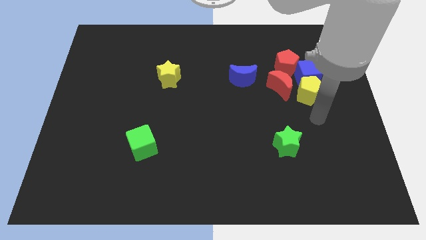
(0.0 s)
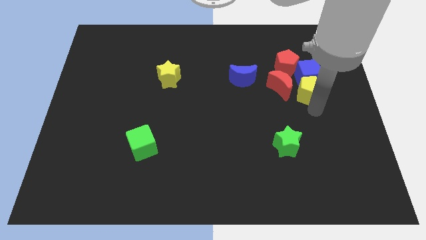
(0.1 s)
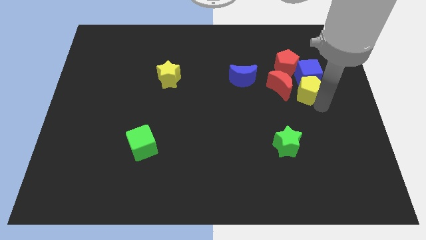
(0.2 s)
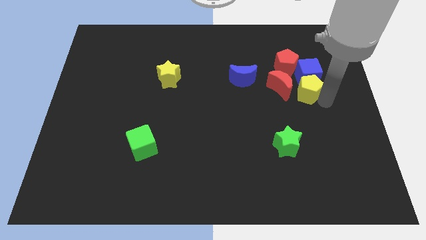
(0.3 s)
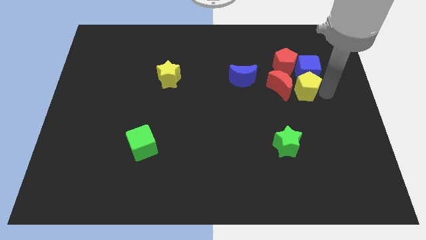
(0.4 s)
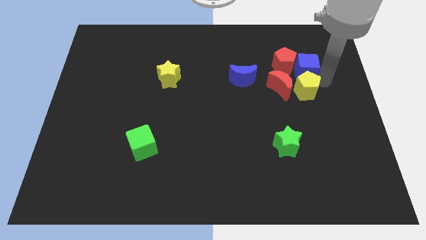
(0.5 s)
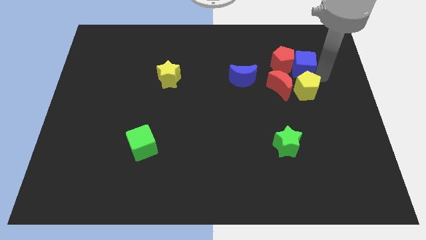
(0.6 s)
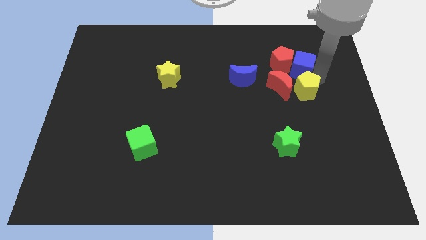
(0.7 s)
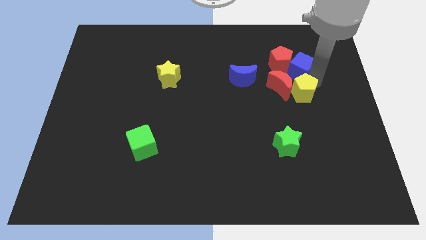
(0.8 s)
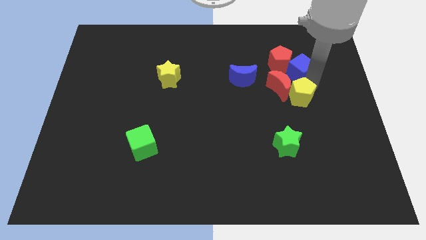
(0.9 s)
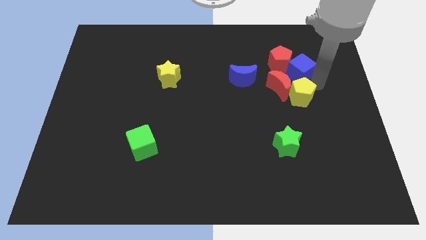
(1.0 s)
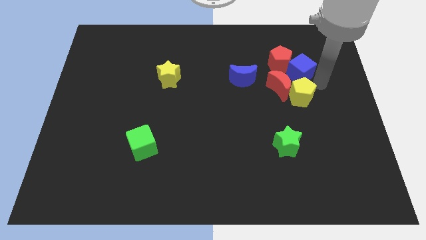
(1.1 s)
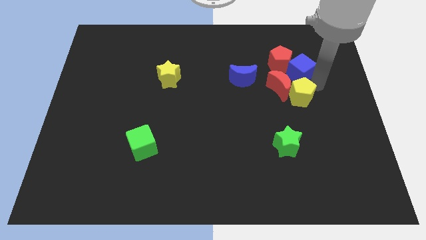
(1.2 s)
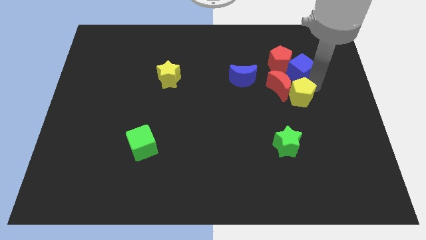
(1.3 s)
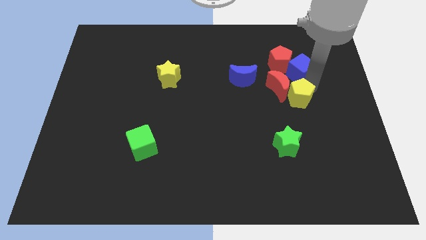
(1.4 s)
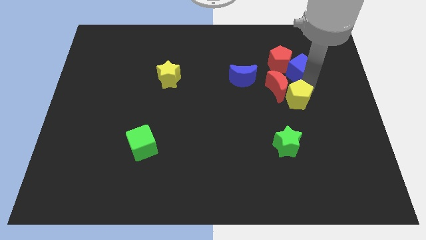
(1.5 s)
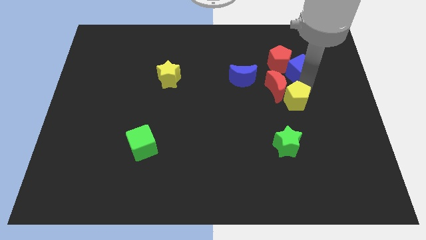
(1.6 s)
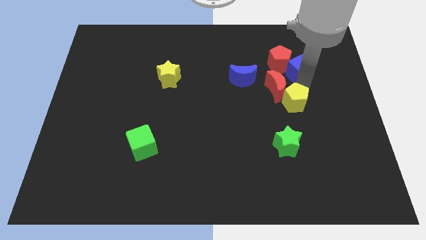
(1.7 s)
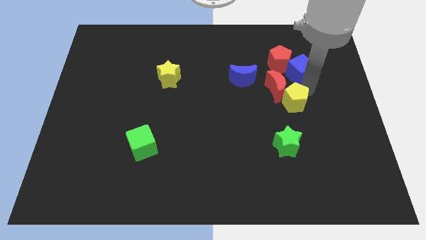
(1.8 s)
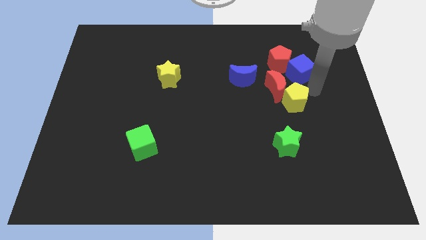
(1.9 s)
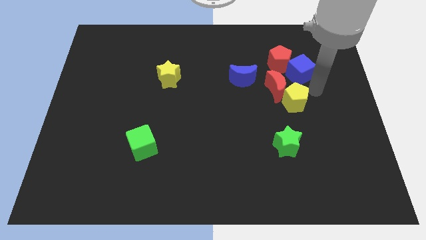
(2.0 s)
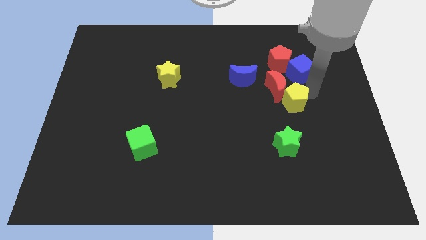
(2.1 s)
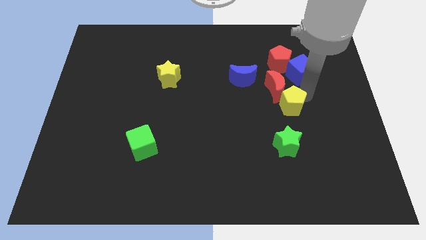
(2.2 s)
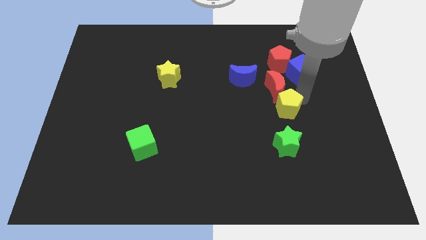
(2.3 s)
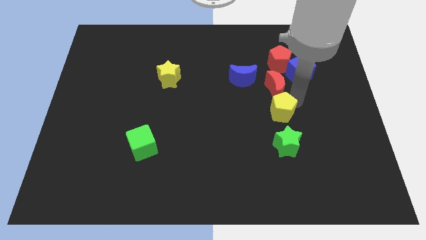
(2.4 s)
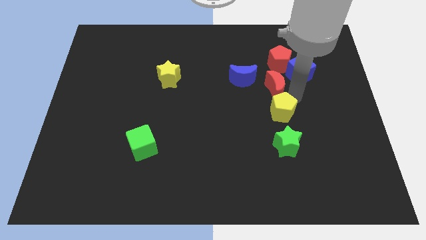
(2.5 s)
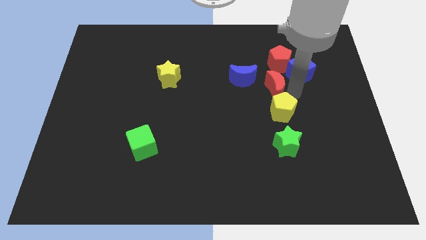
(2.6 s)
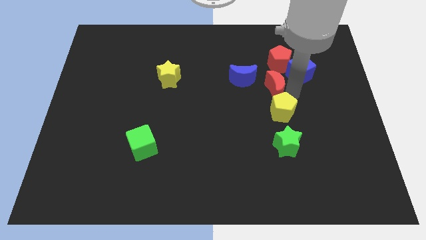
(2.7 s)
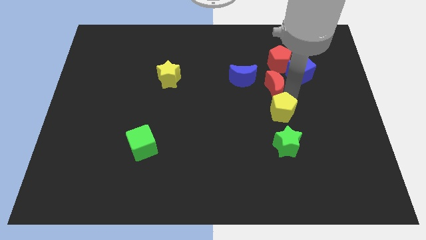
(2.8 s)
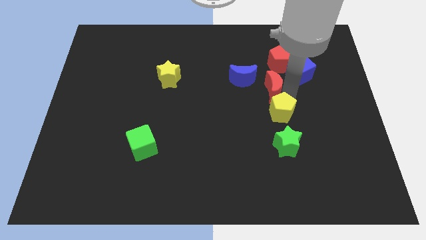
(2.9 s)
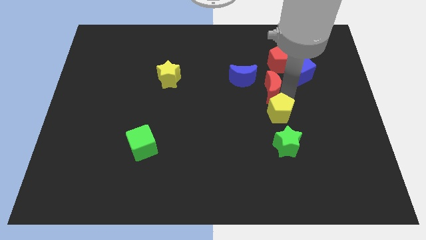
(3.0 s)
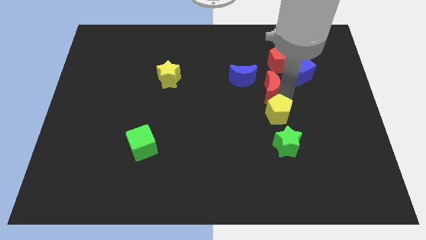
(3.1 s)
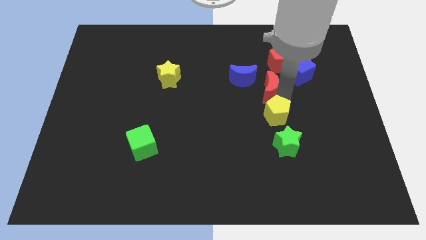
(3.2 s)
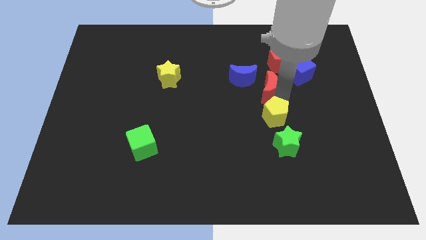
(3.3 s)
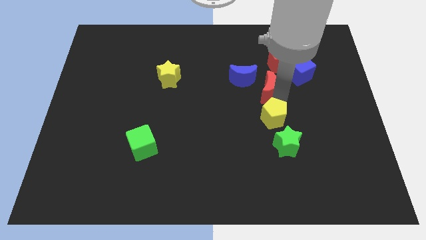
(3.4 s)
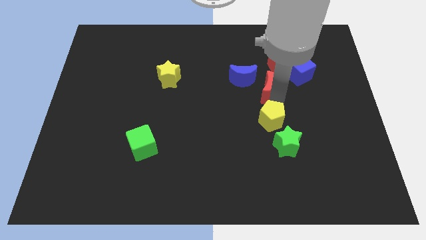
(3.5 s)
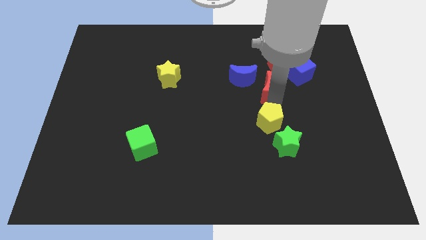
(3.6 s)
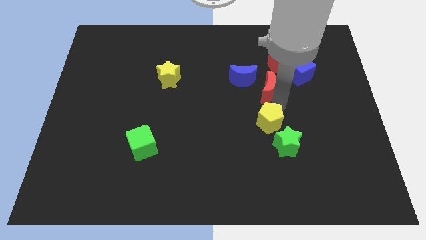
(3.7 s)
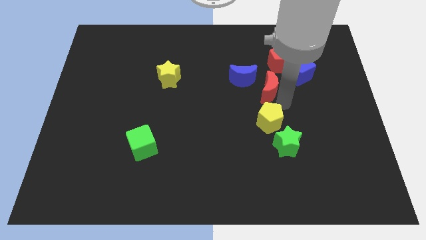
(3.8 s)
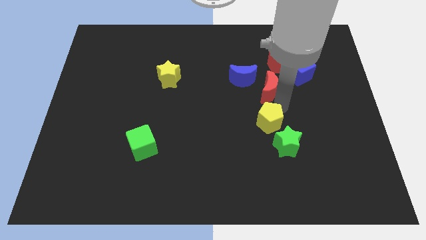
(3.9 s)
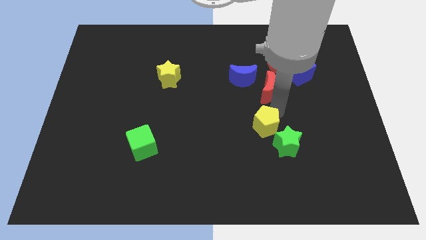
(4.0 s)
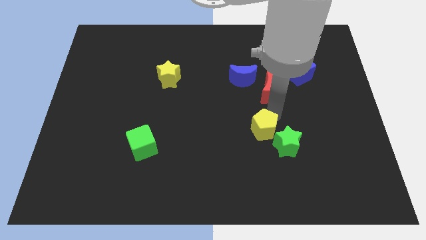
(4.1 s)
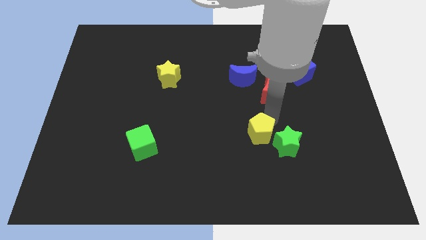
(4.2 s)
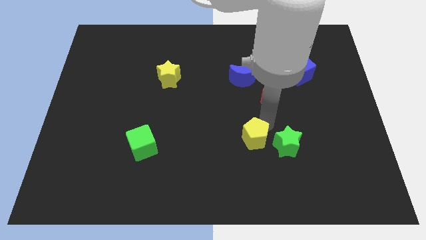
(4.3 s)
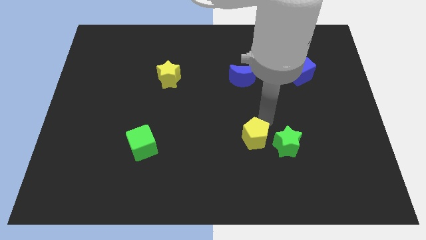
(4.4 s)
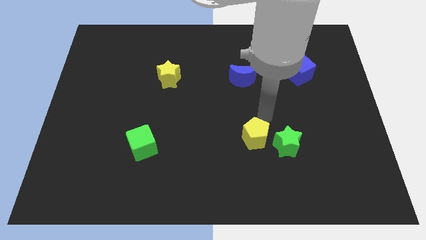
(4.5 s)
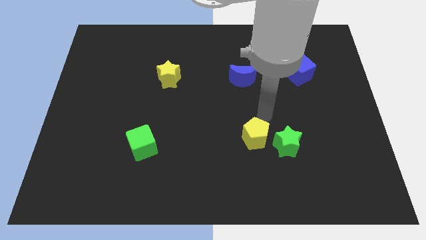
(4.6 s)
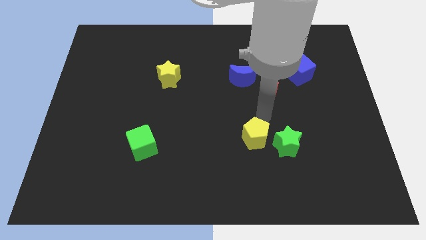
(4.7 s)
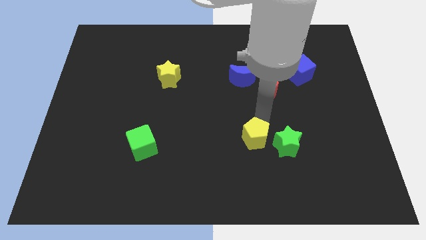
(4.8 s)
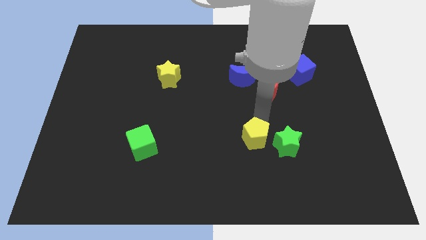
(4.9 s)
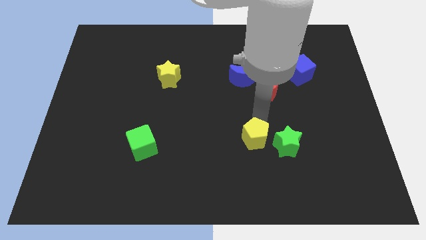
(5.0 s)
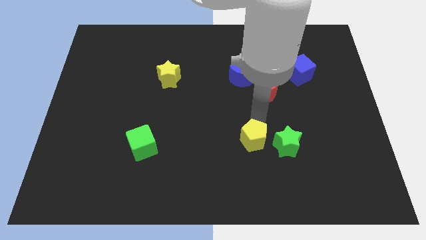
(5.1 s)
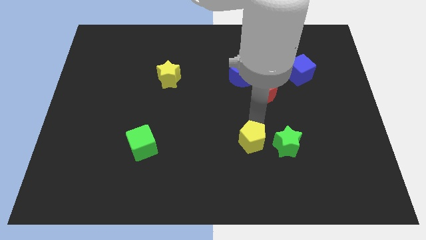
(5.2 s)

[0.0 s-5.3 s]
slide the yellow pentagon down and then to the left

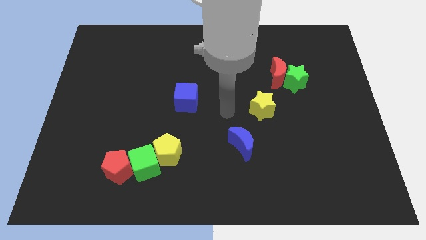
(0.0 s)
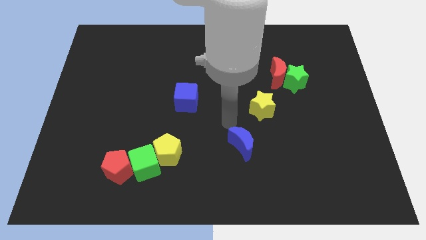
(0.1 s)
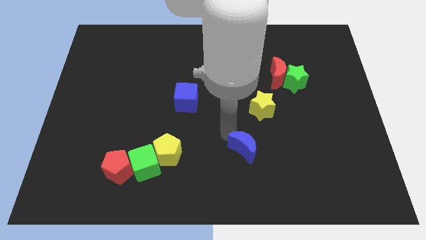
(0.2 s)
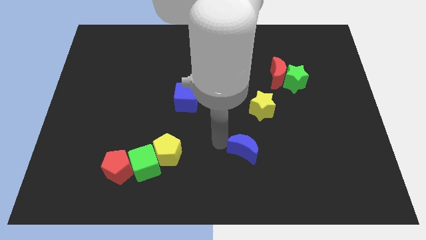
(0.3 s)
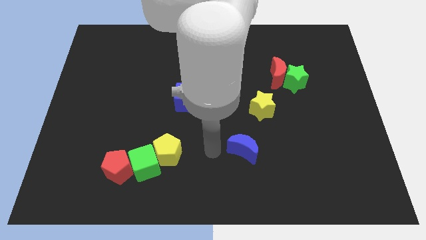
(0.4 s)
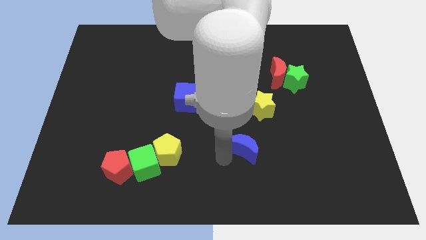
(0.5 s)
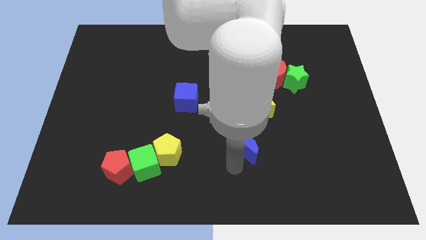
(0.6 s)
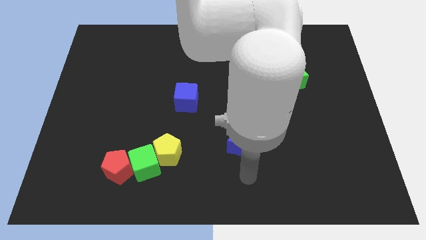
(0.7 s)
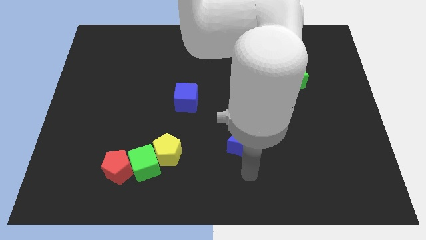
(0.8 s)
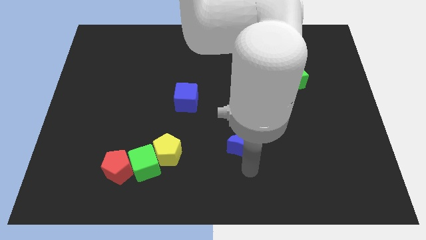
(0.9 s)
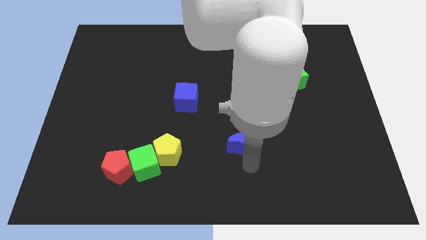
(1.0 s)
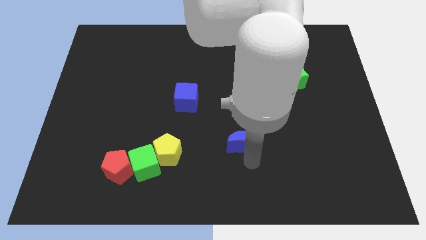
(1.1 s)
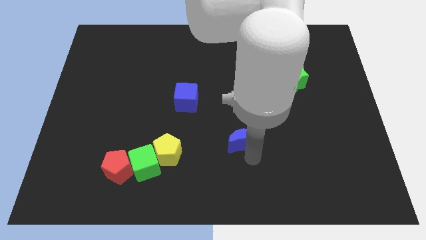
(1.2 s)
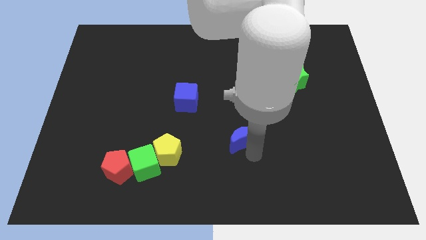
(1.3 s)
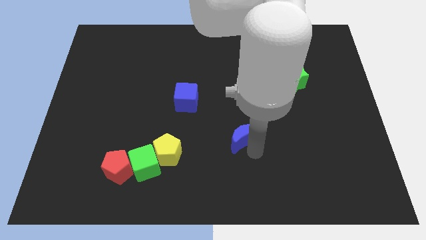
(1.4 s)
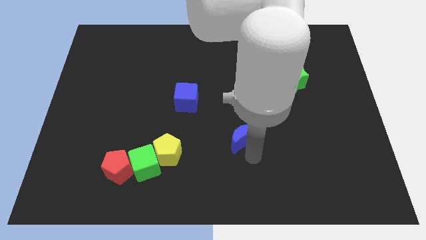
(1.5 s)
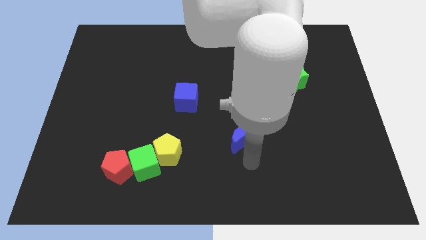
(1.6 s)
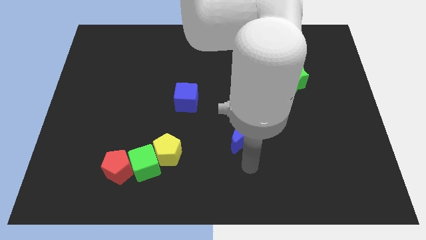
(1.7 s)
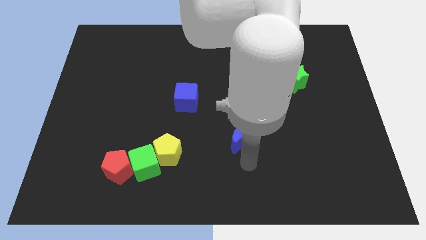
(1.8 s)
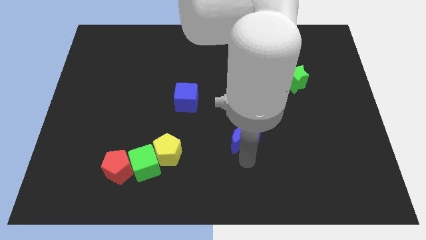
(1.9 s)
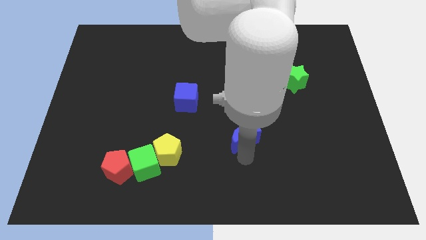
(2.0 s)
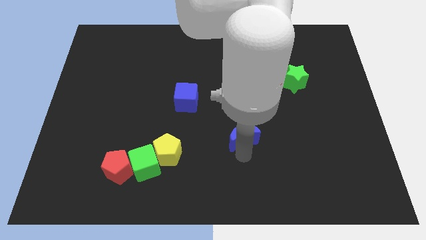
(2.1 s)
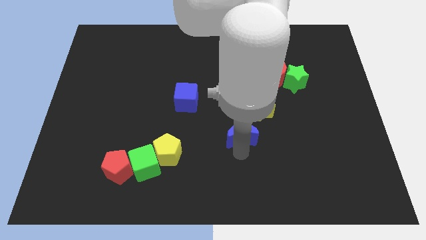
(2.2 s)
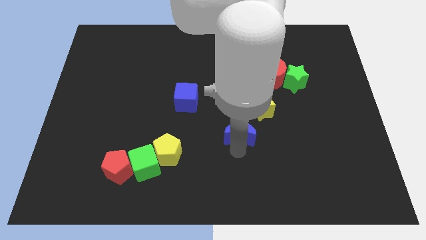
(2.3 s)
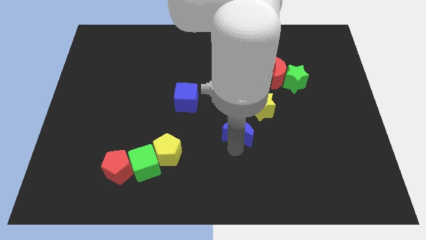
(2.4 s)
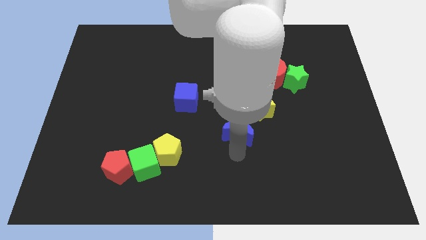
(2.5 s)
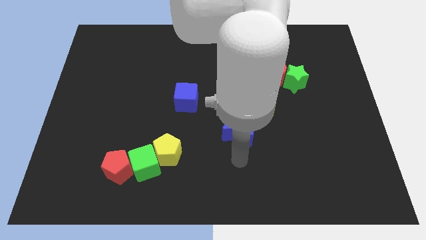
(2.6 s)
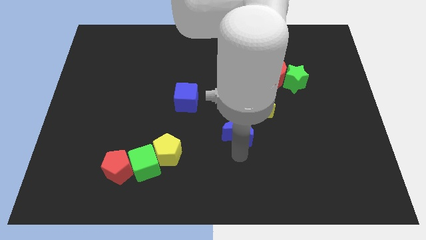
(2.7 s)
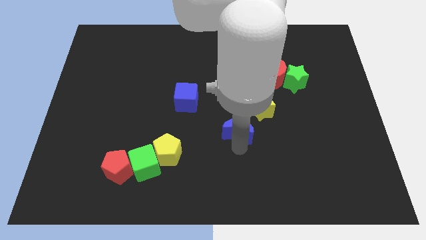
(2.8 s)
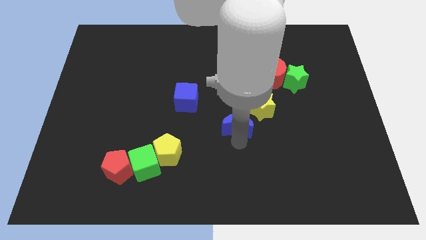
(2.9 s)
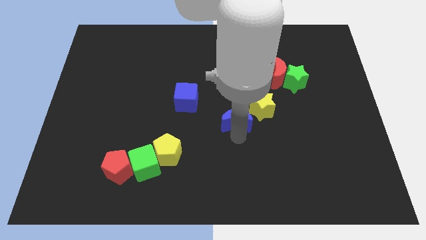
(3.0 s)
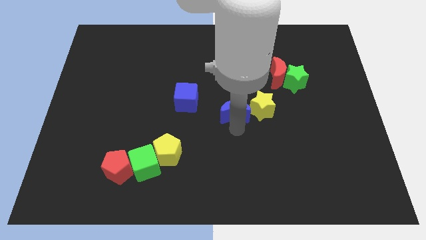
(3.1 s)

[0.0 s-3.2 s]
slightly move the blue moon upwards
